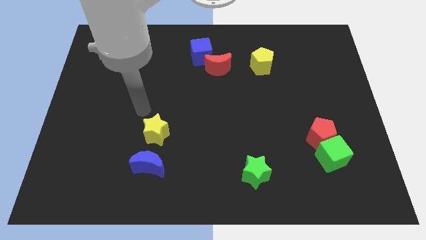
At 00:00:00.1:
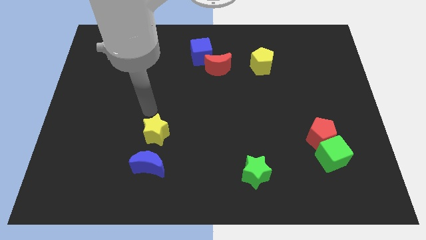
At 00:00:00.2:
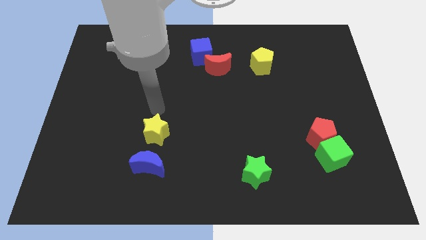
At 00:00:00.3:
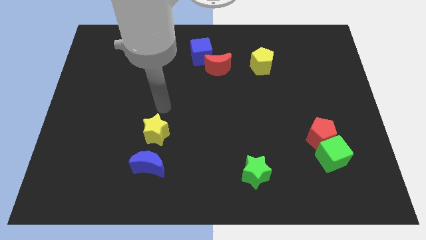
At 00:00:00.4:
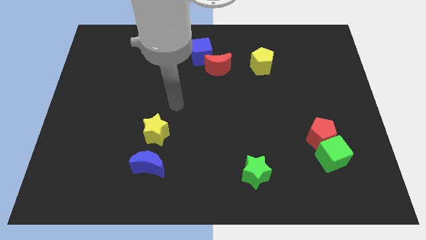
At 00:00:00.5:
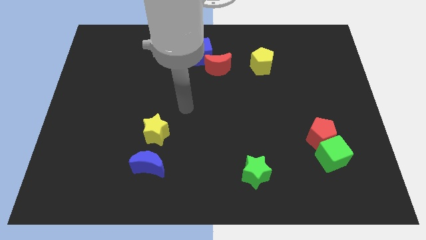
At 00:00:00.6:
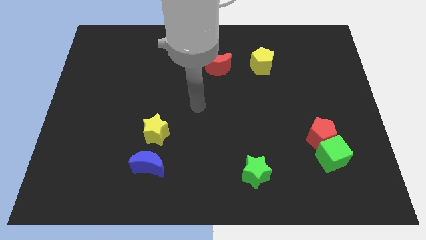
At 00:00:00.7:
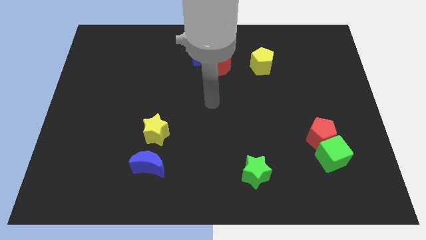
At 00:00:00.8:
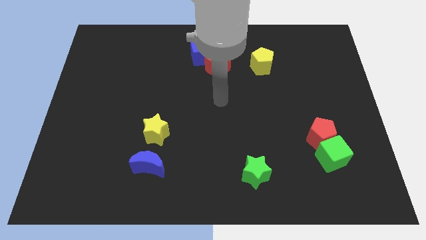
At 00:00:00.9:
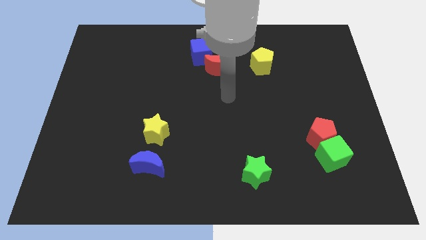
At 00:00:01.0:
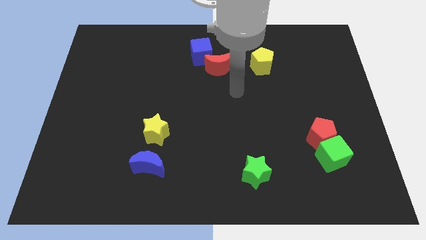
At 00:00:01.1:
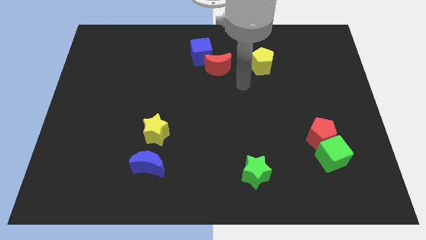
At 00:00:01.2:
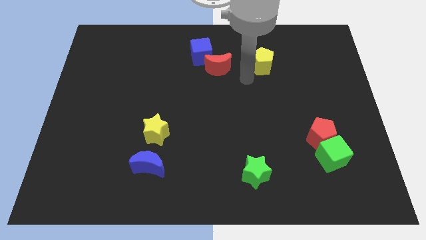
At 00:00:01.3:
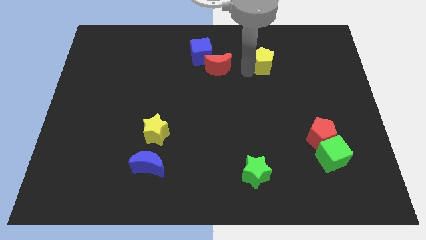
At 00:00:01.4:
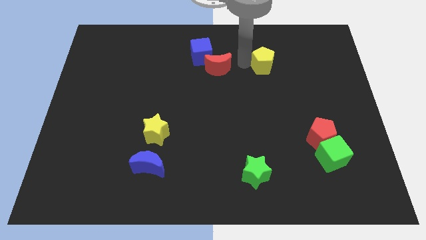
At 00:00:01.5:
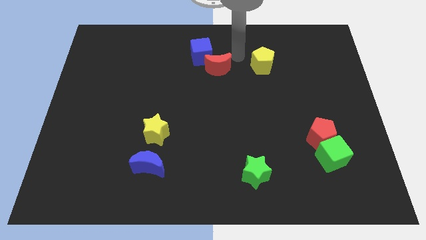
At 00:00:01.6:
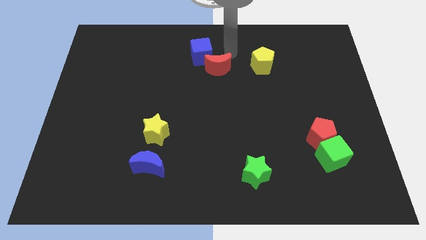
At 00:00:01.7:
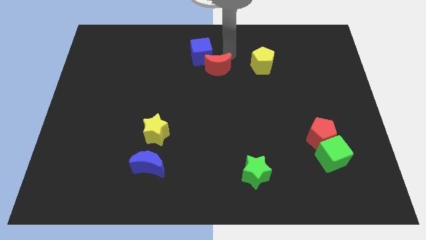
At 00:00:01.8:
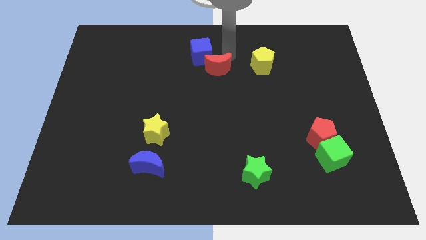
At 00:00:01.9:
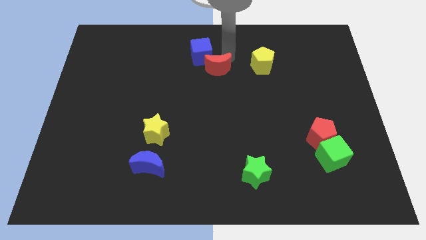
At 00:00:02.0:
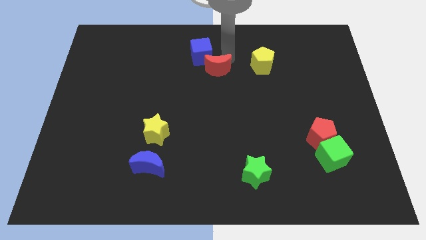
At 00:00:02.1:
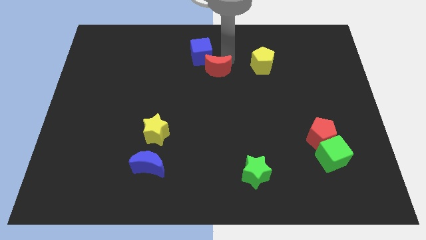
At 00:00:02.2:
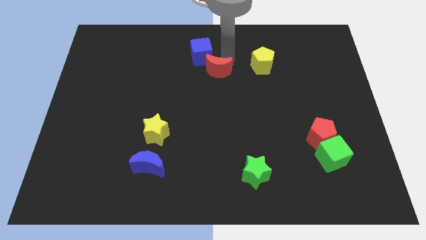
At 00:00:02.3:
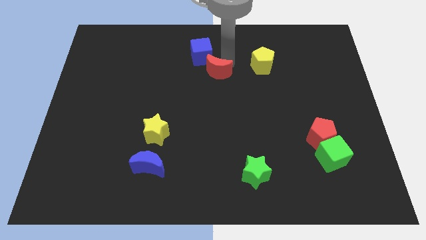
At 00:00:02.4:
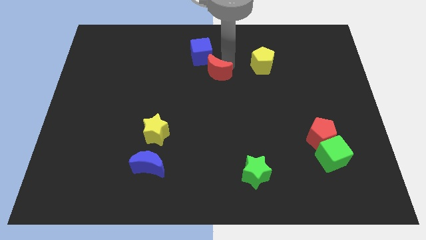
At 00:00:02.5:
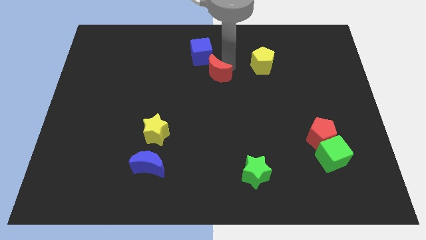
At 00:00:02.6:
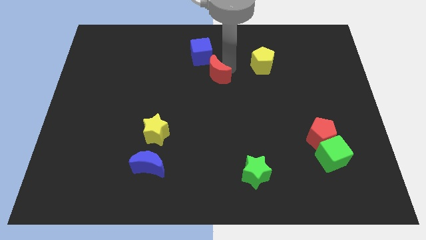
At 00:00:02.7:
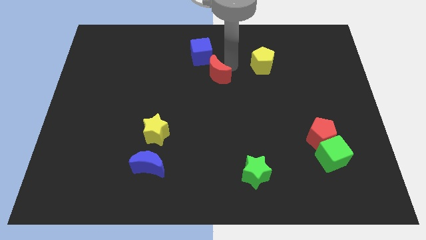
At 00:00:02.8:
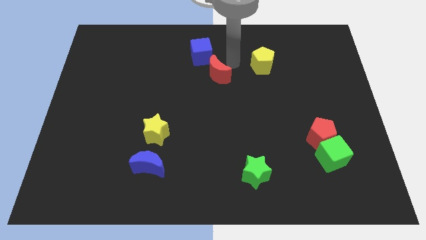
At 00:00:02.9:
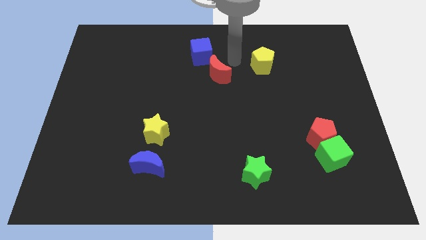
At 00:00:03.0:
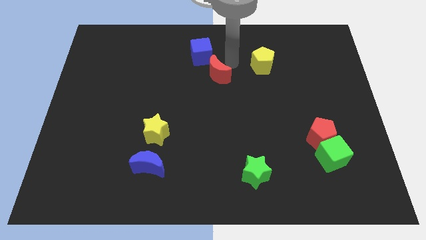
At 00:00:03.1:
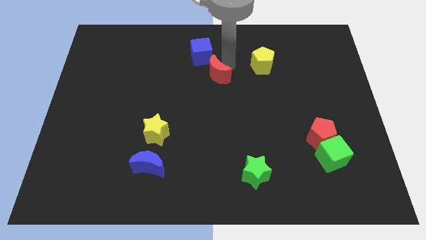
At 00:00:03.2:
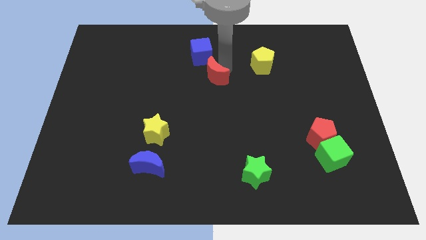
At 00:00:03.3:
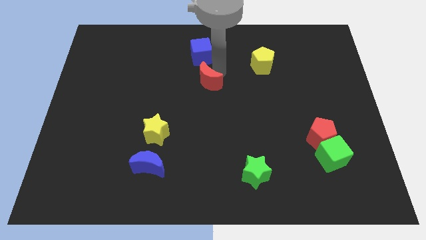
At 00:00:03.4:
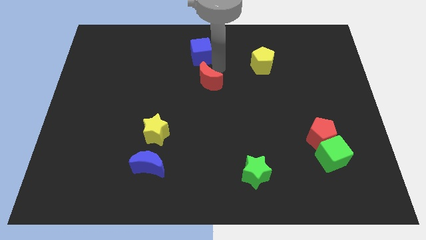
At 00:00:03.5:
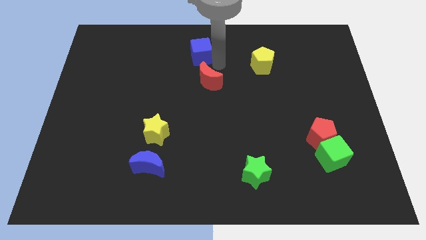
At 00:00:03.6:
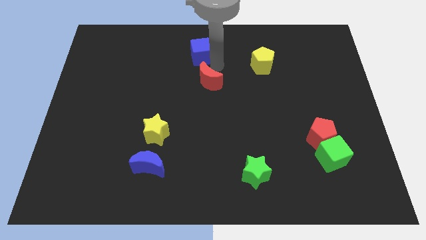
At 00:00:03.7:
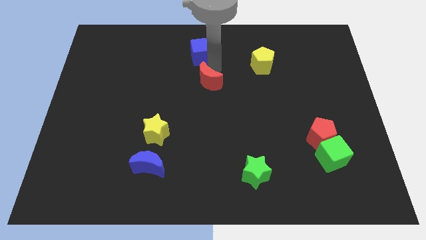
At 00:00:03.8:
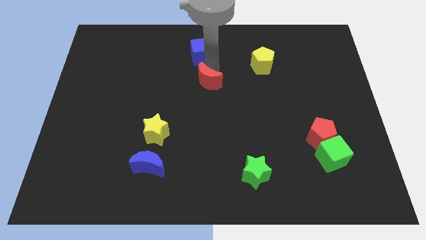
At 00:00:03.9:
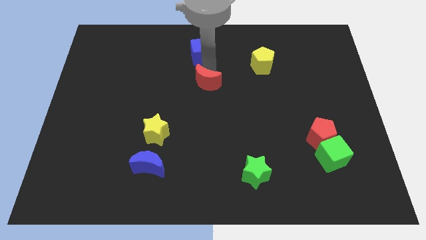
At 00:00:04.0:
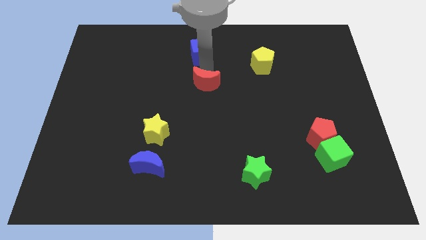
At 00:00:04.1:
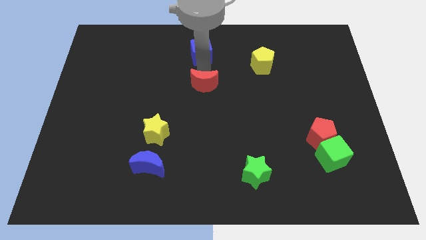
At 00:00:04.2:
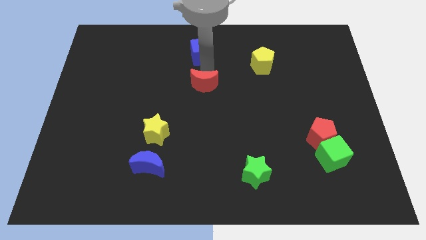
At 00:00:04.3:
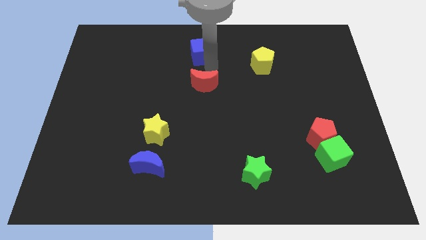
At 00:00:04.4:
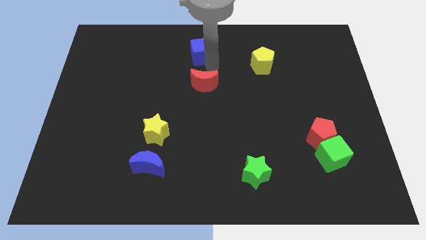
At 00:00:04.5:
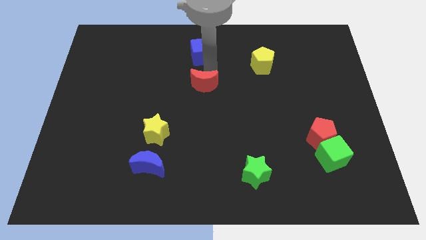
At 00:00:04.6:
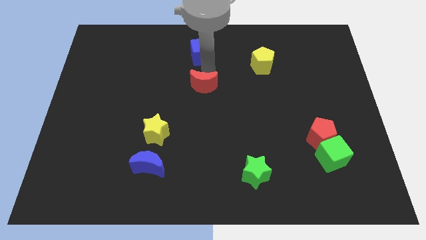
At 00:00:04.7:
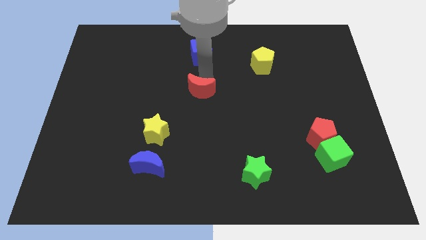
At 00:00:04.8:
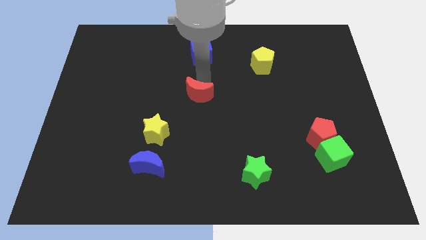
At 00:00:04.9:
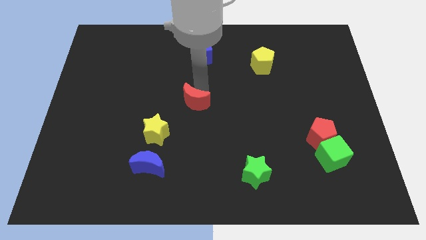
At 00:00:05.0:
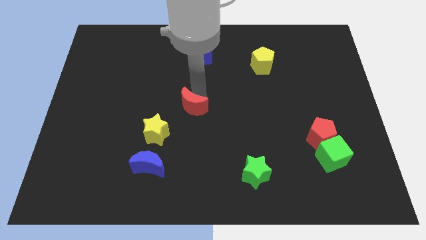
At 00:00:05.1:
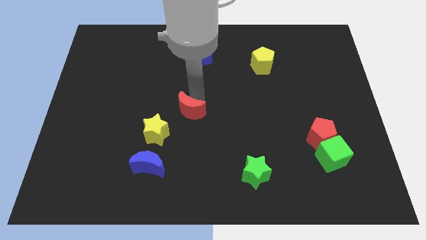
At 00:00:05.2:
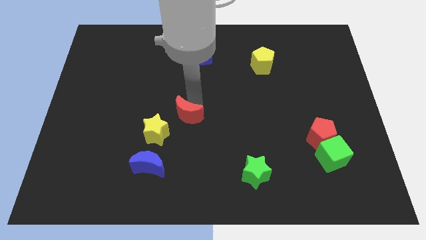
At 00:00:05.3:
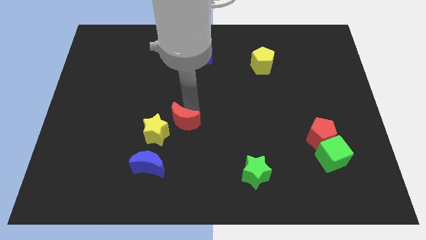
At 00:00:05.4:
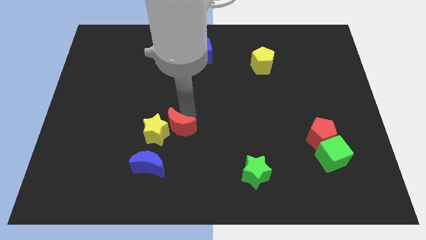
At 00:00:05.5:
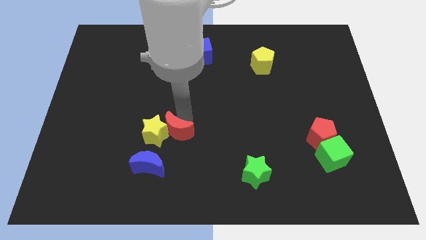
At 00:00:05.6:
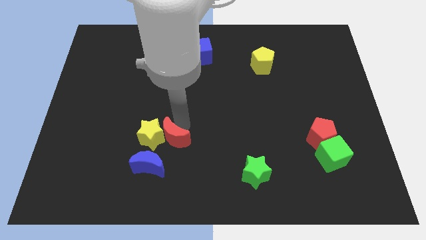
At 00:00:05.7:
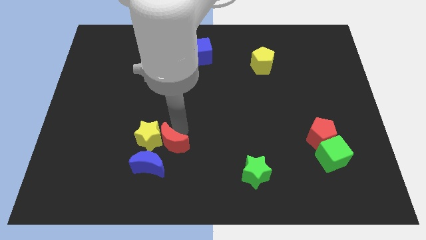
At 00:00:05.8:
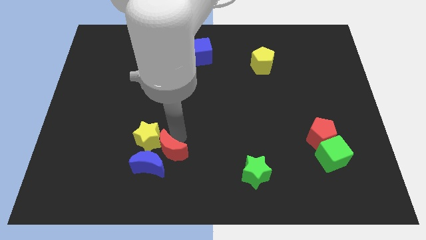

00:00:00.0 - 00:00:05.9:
push the red moon close to the blue moon

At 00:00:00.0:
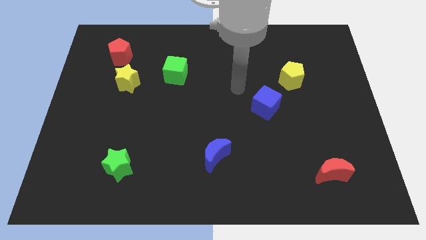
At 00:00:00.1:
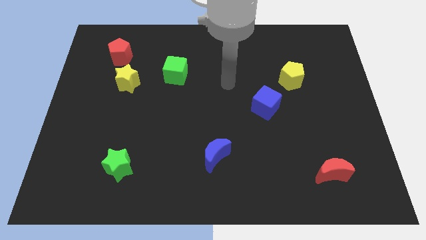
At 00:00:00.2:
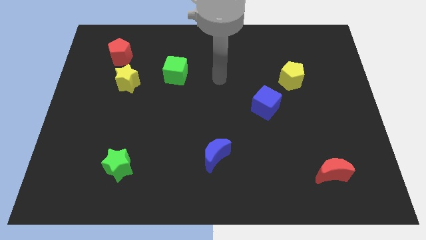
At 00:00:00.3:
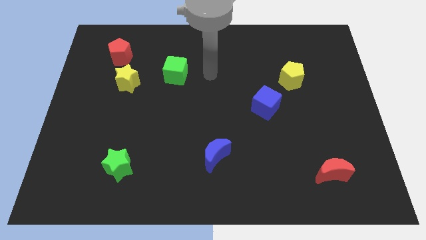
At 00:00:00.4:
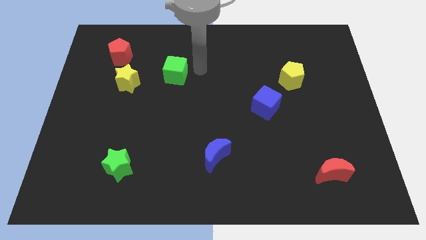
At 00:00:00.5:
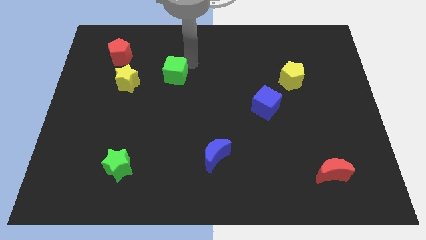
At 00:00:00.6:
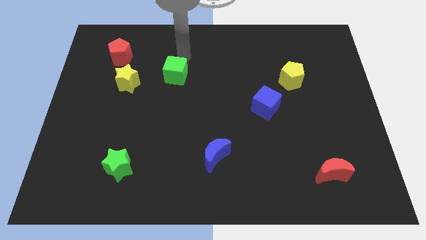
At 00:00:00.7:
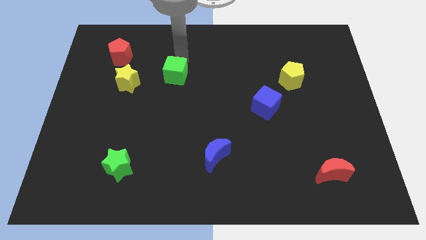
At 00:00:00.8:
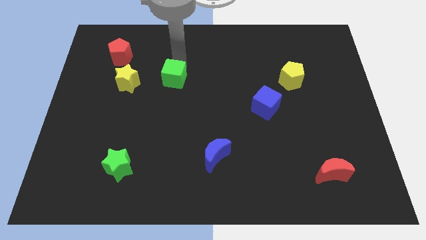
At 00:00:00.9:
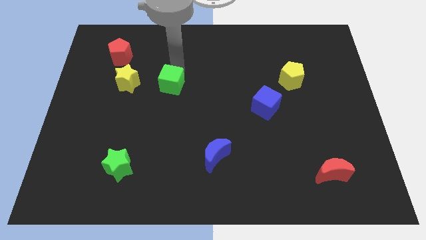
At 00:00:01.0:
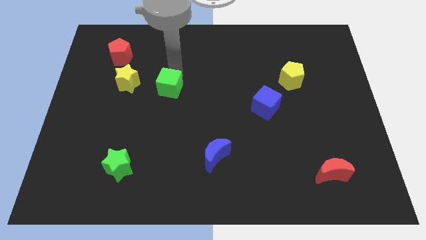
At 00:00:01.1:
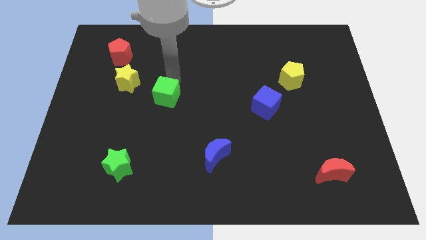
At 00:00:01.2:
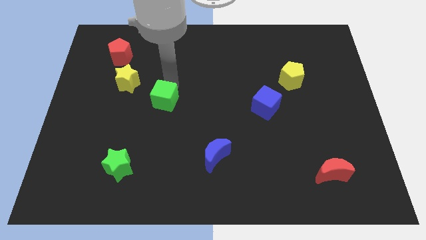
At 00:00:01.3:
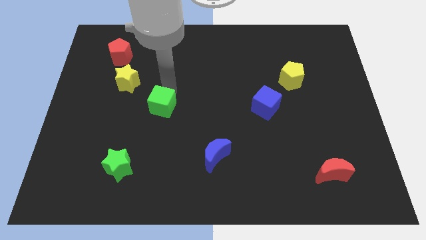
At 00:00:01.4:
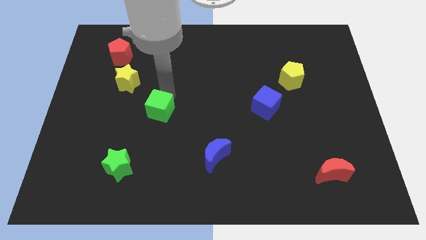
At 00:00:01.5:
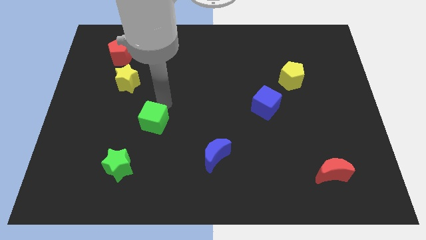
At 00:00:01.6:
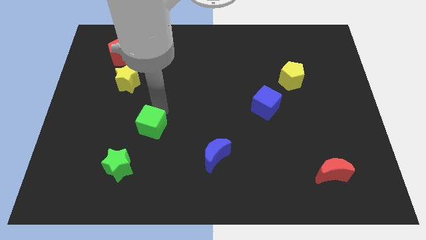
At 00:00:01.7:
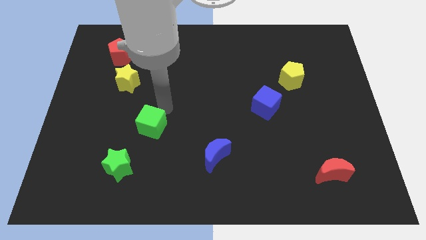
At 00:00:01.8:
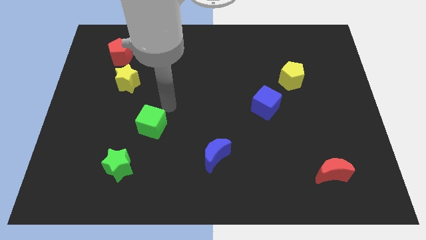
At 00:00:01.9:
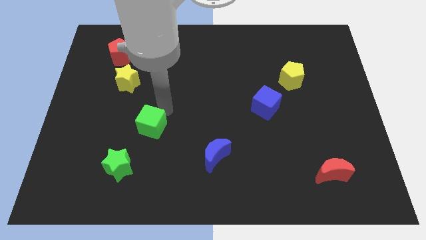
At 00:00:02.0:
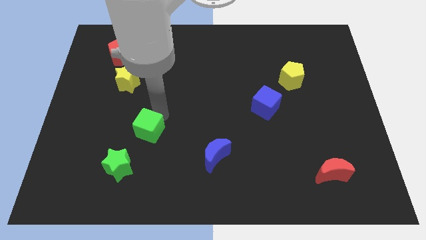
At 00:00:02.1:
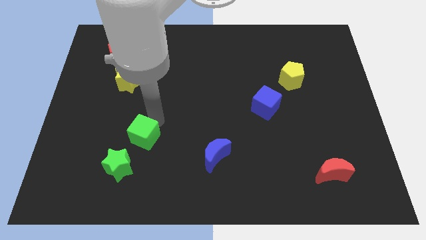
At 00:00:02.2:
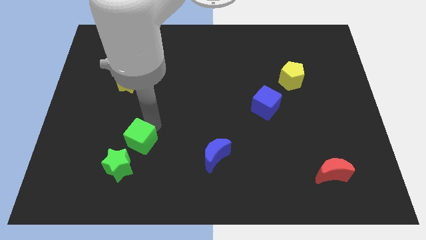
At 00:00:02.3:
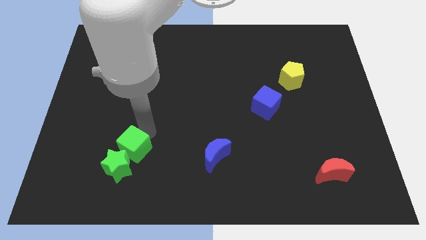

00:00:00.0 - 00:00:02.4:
move the green cube towards the green star
